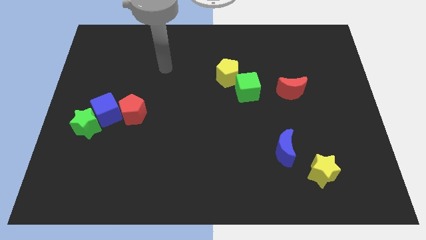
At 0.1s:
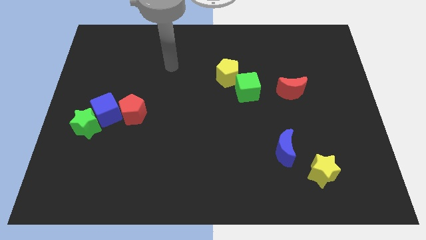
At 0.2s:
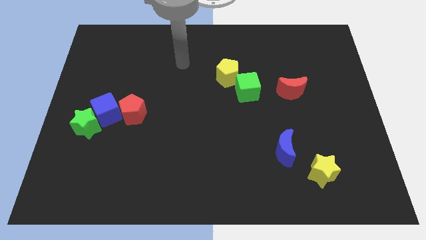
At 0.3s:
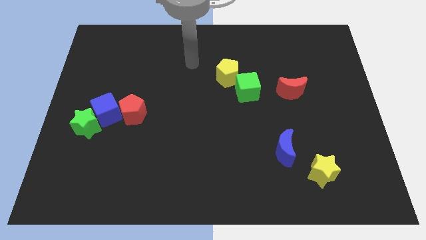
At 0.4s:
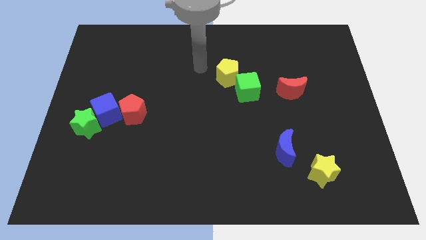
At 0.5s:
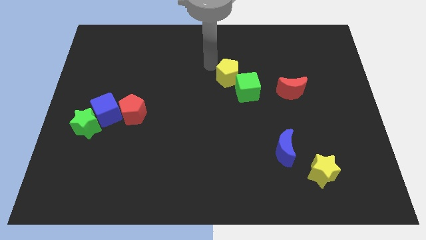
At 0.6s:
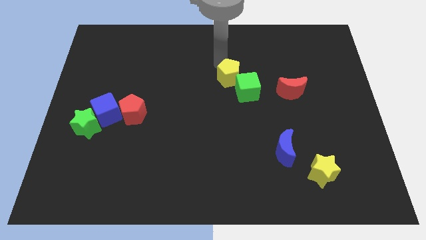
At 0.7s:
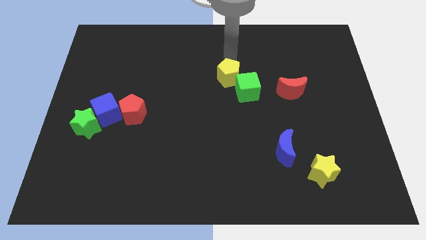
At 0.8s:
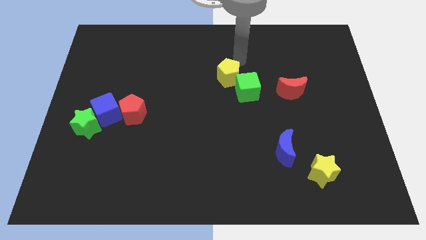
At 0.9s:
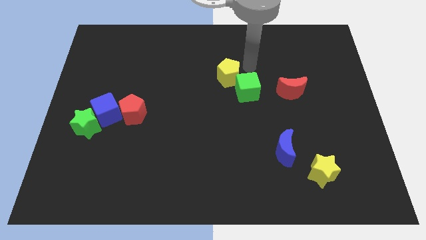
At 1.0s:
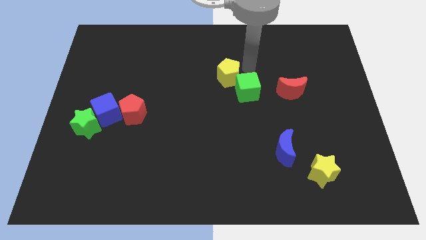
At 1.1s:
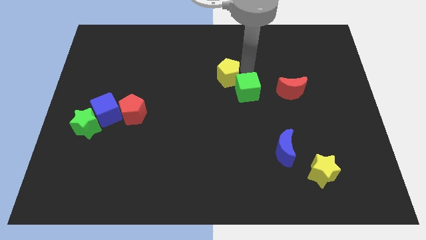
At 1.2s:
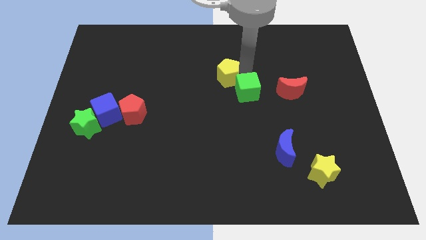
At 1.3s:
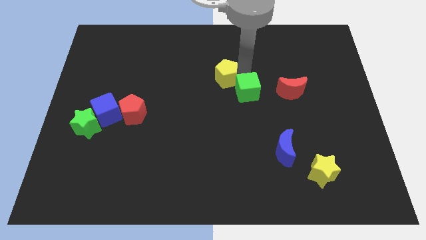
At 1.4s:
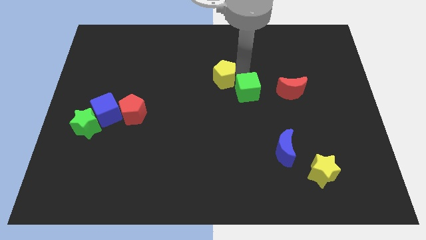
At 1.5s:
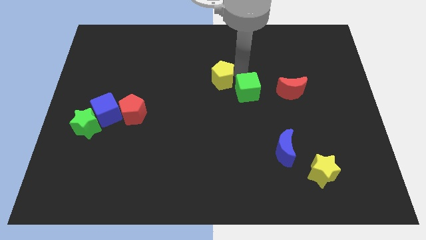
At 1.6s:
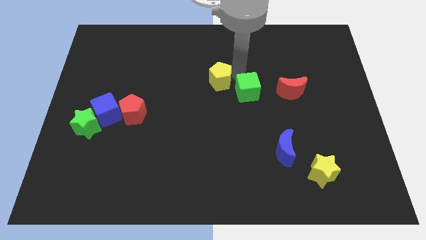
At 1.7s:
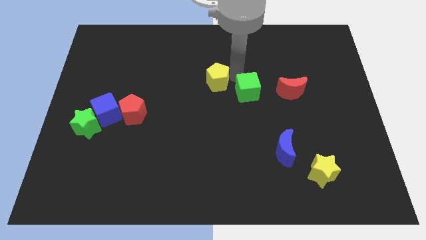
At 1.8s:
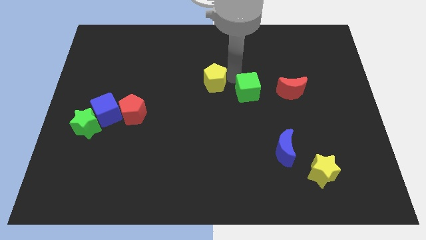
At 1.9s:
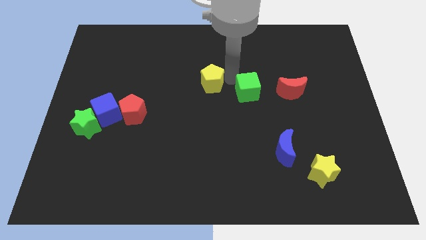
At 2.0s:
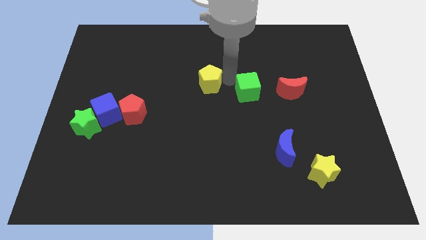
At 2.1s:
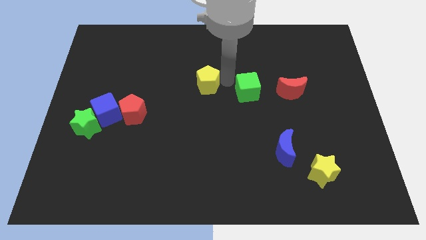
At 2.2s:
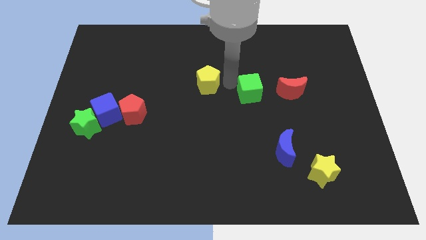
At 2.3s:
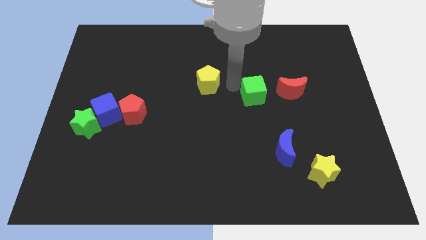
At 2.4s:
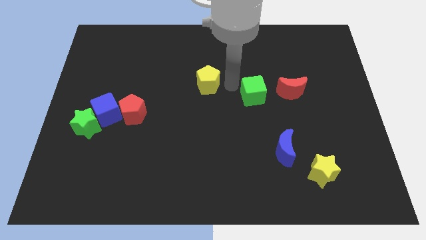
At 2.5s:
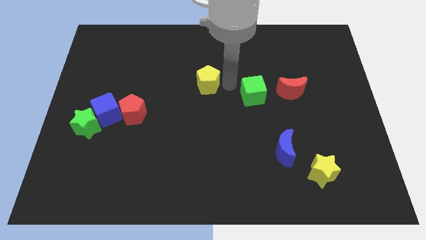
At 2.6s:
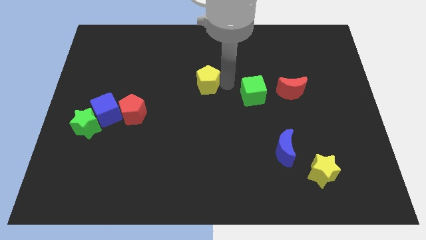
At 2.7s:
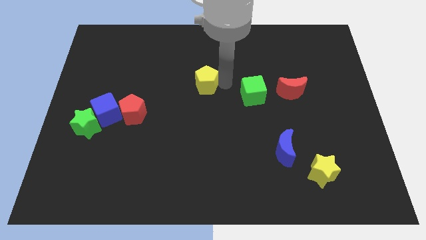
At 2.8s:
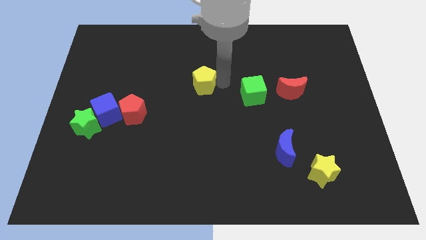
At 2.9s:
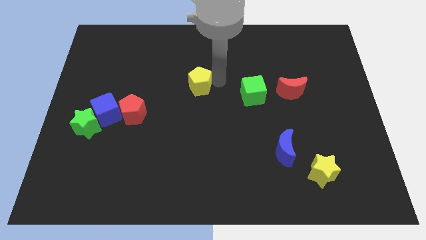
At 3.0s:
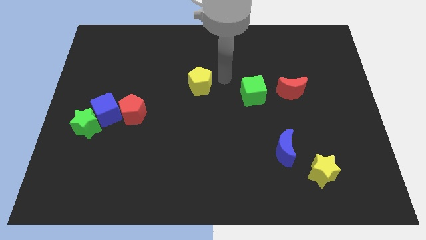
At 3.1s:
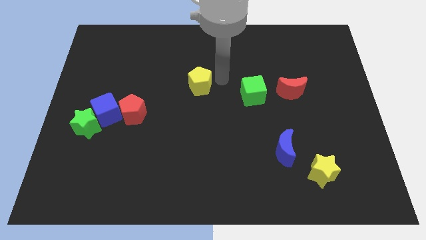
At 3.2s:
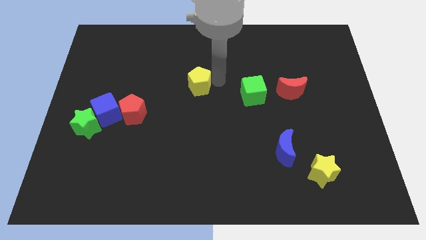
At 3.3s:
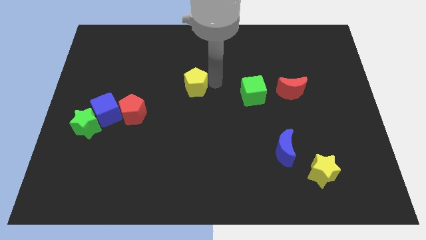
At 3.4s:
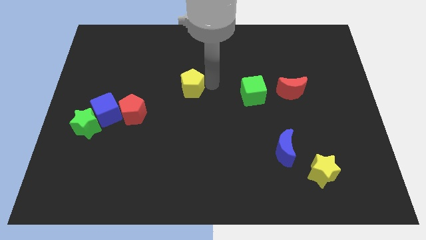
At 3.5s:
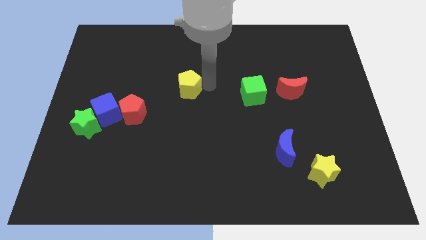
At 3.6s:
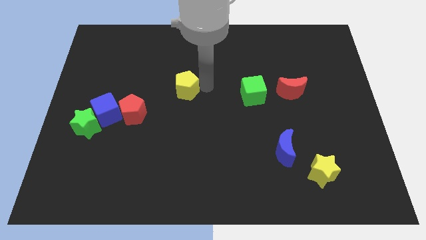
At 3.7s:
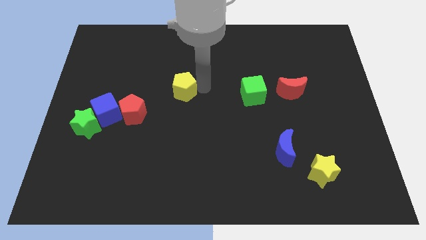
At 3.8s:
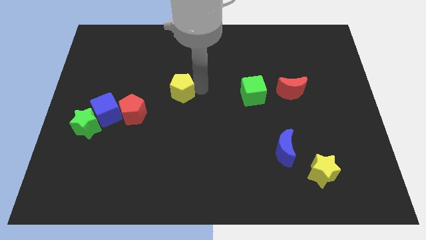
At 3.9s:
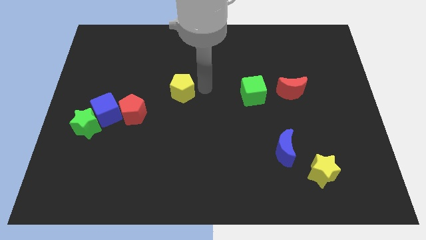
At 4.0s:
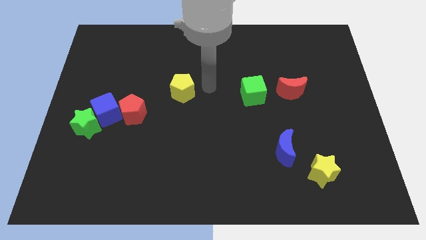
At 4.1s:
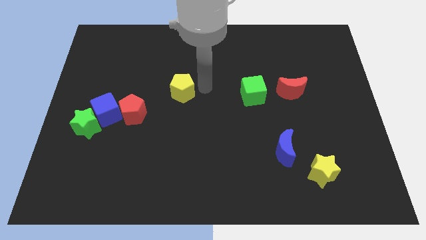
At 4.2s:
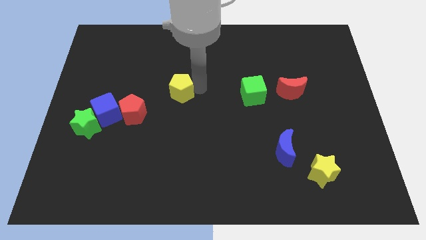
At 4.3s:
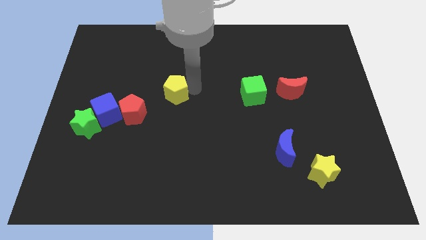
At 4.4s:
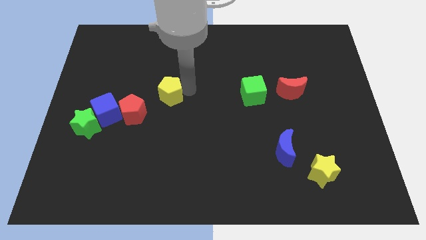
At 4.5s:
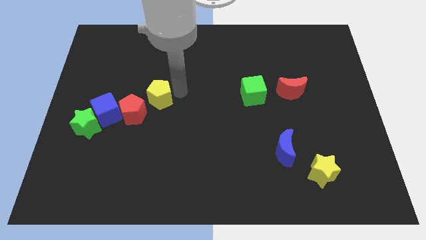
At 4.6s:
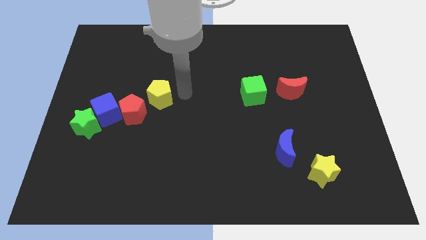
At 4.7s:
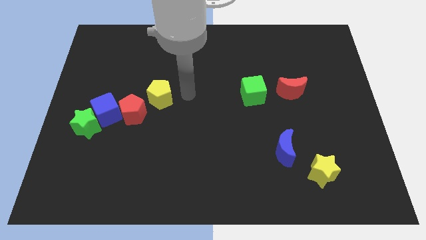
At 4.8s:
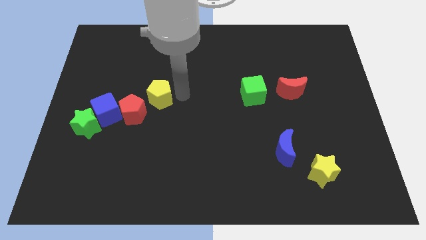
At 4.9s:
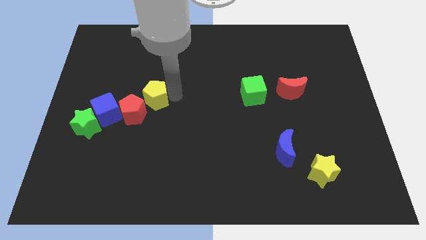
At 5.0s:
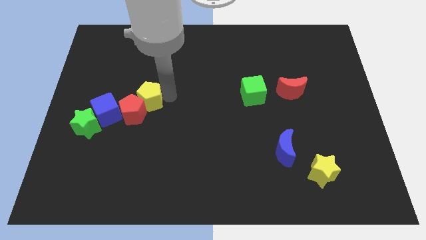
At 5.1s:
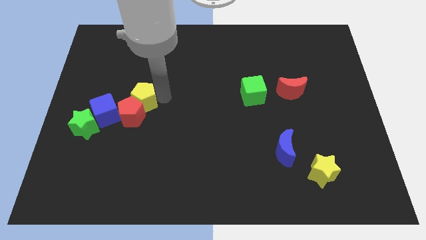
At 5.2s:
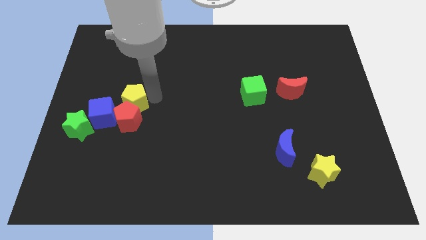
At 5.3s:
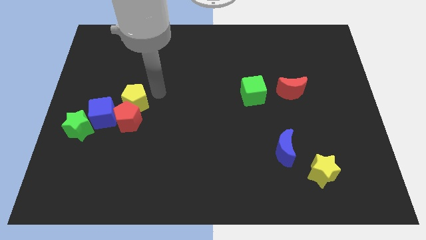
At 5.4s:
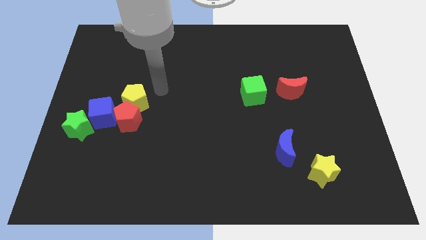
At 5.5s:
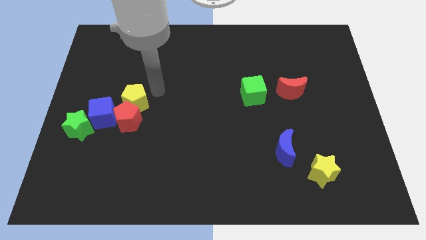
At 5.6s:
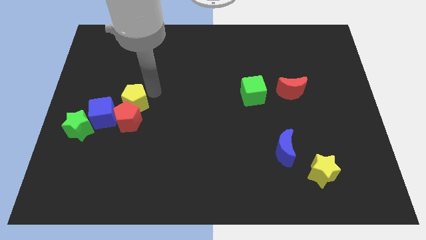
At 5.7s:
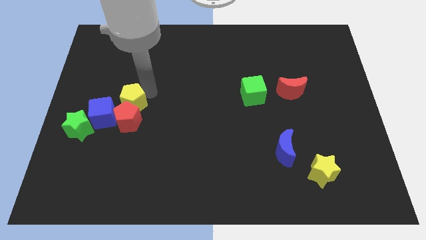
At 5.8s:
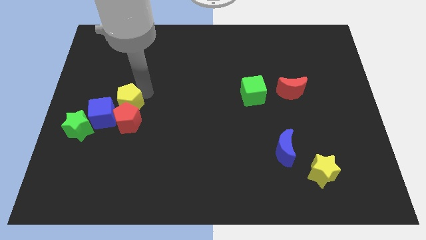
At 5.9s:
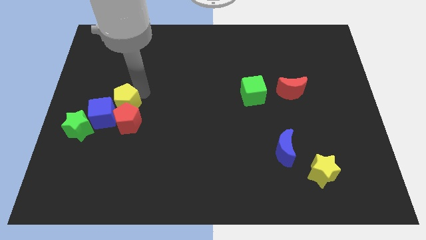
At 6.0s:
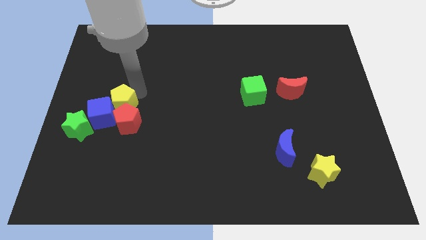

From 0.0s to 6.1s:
move the yellow pentagon towards the blue cube

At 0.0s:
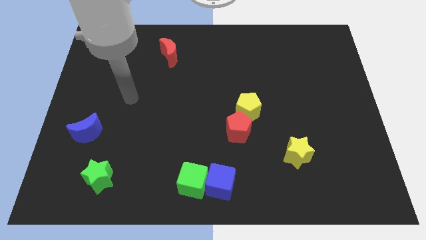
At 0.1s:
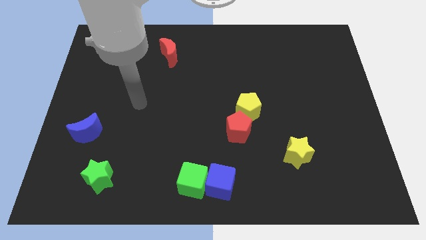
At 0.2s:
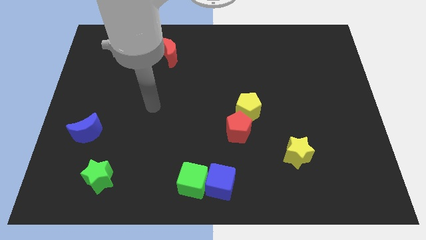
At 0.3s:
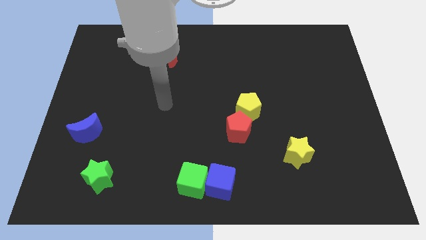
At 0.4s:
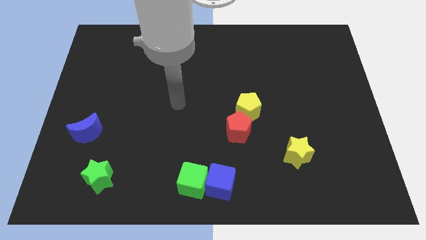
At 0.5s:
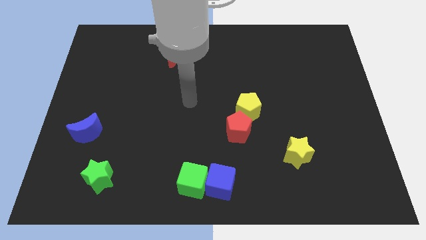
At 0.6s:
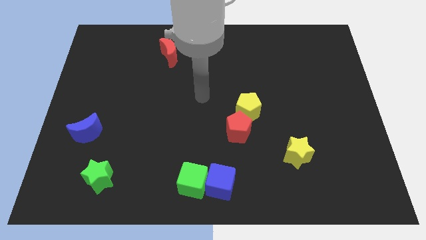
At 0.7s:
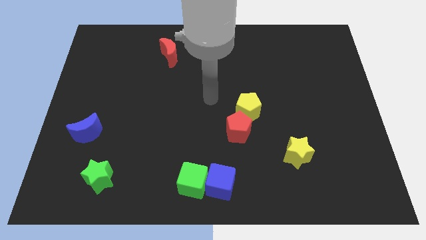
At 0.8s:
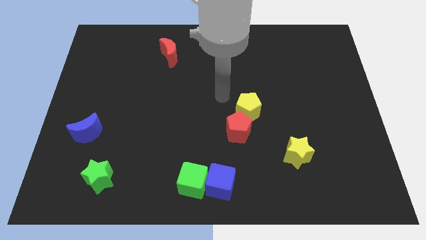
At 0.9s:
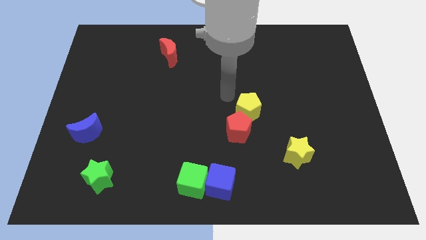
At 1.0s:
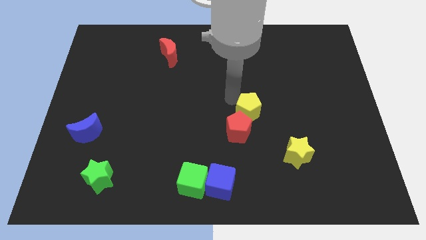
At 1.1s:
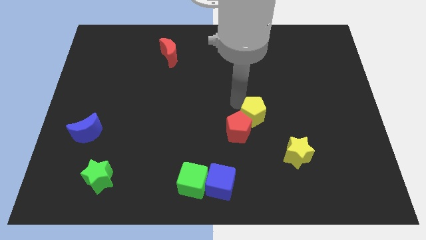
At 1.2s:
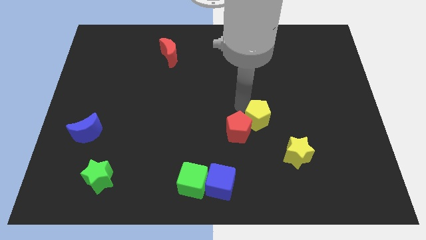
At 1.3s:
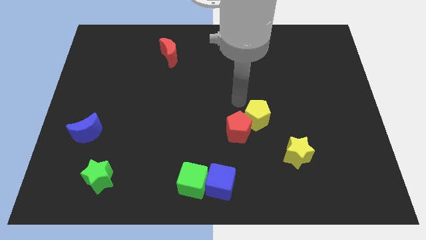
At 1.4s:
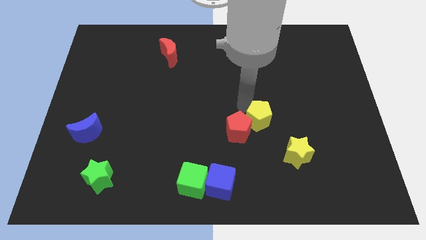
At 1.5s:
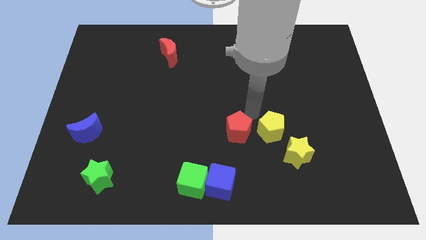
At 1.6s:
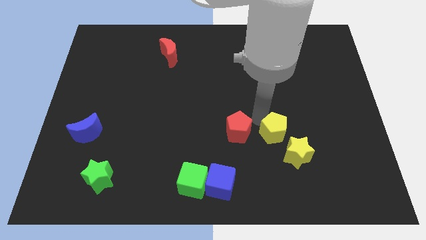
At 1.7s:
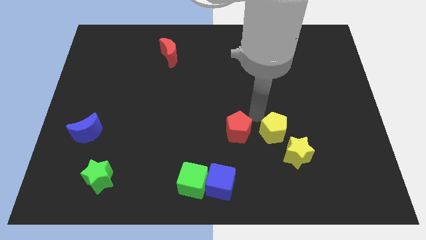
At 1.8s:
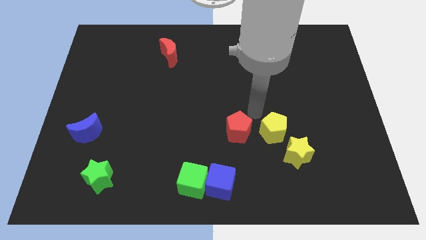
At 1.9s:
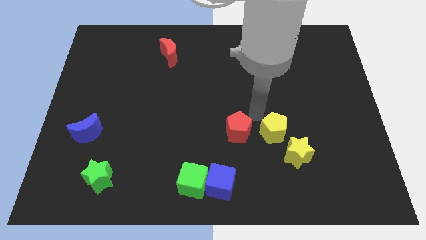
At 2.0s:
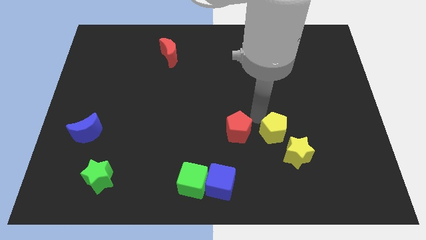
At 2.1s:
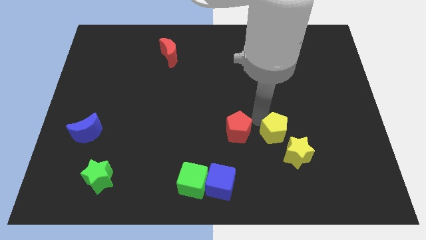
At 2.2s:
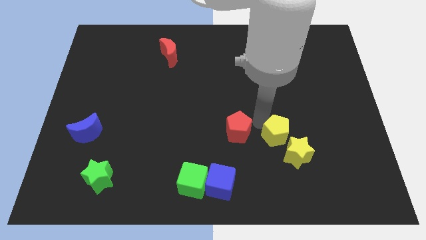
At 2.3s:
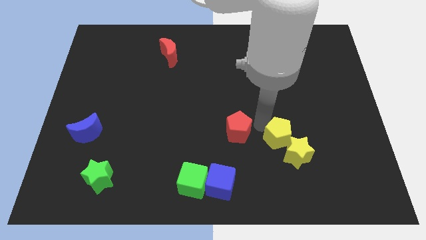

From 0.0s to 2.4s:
put the yellow pentagon close to the yellow star
